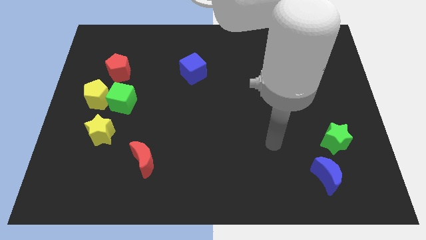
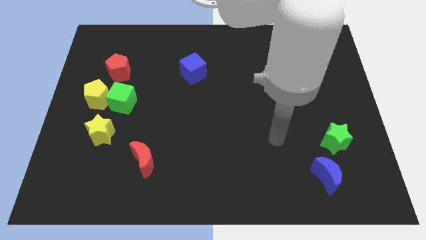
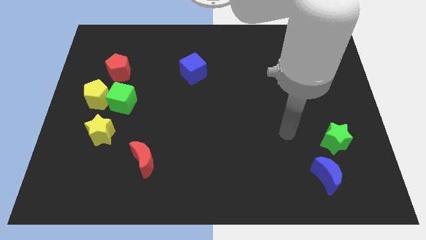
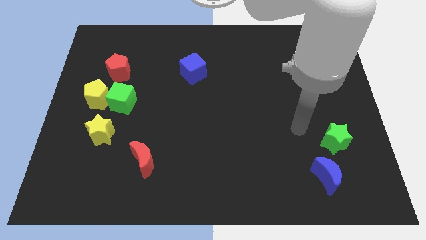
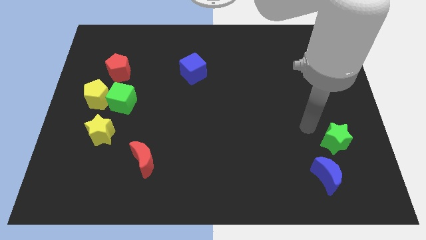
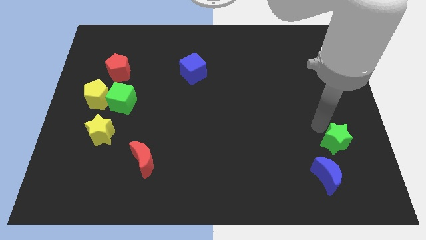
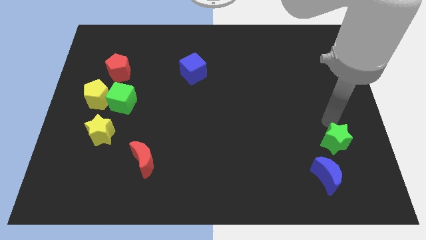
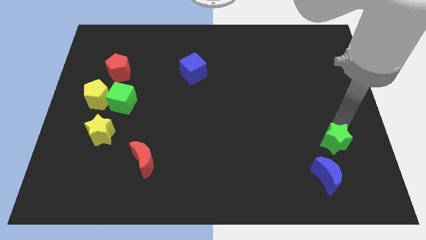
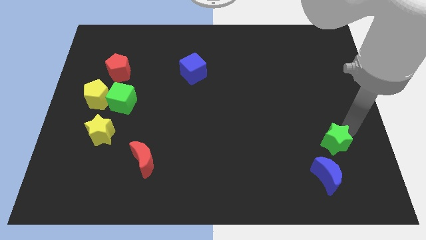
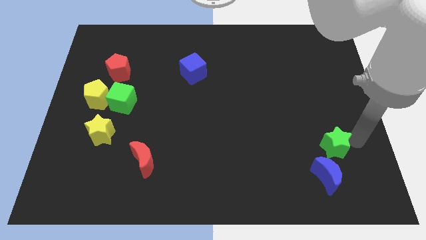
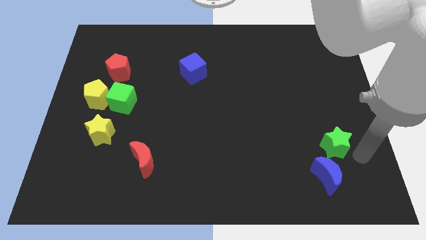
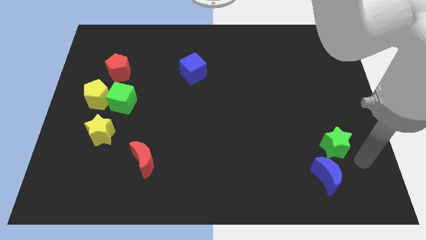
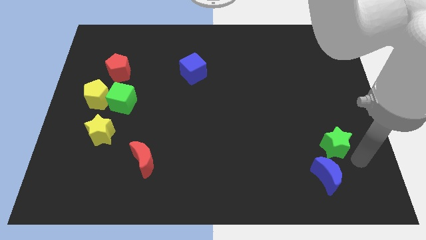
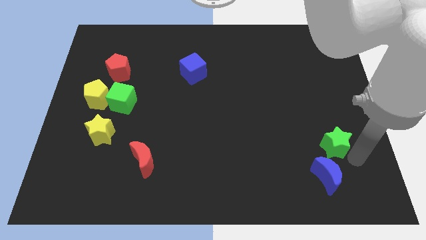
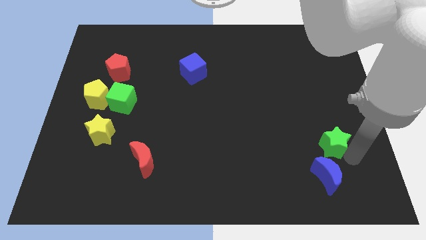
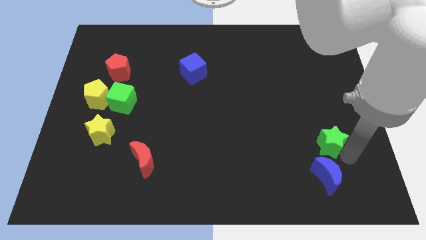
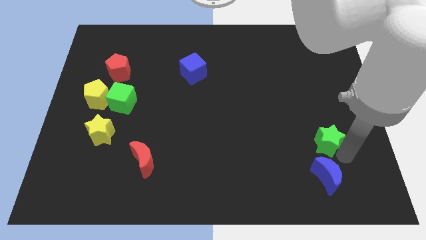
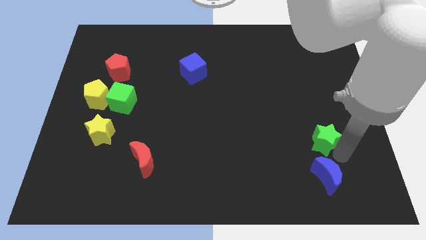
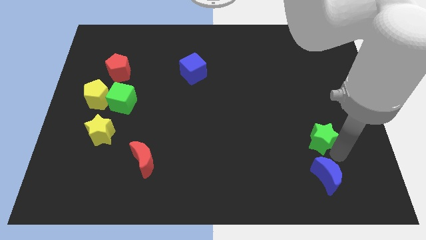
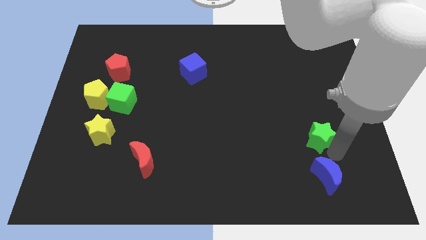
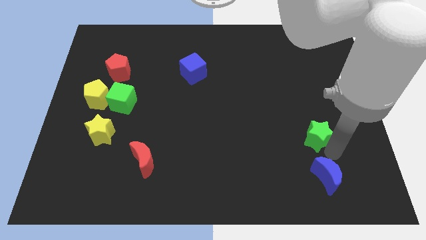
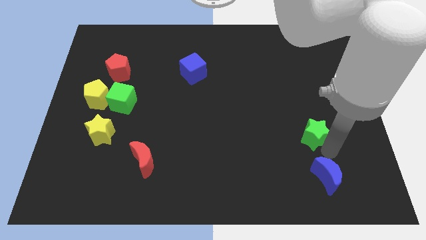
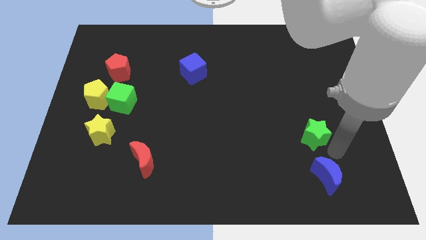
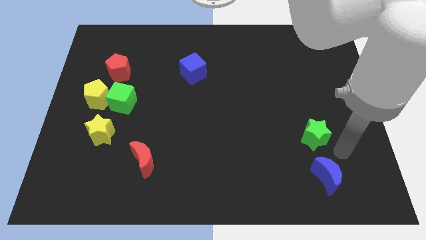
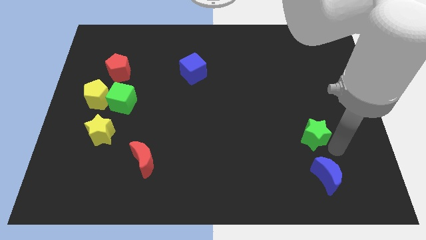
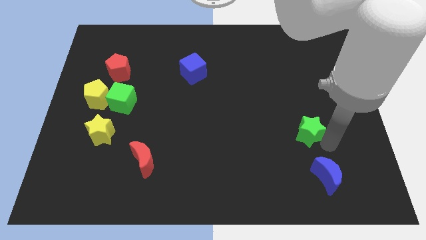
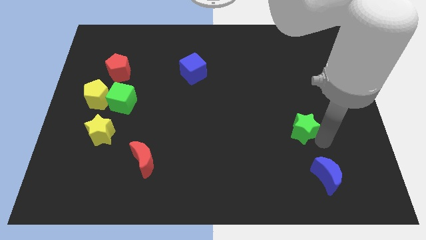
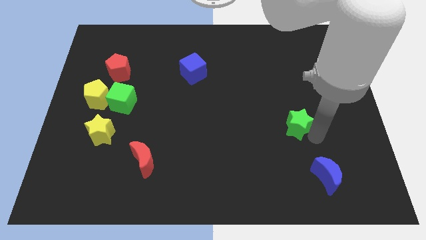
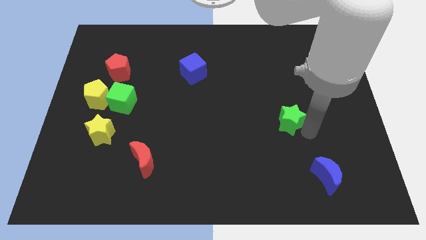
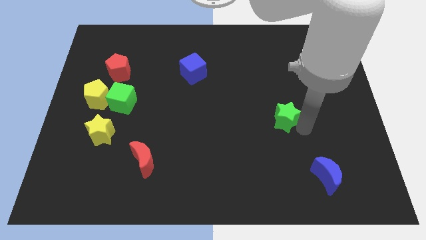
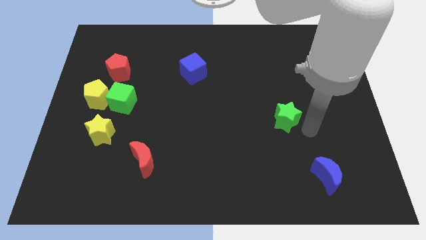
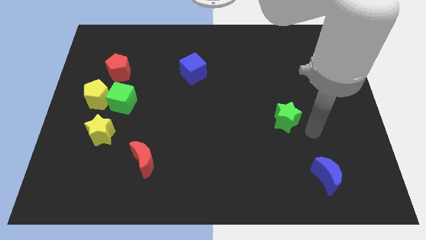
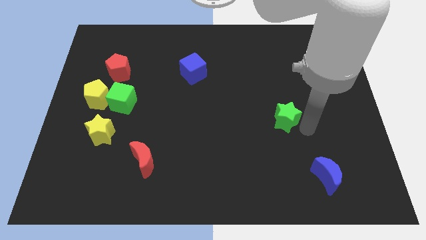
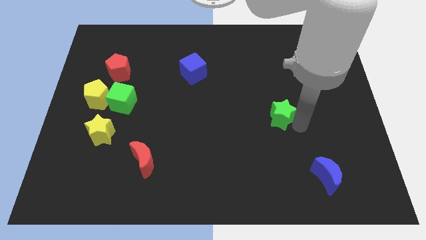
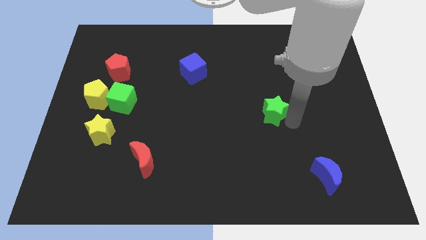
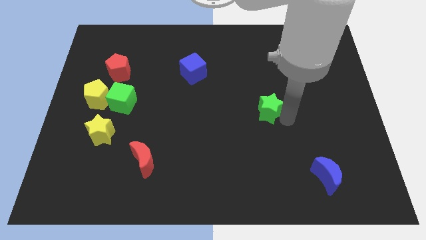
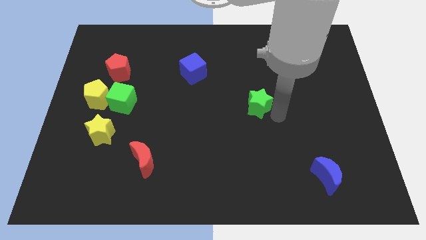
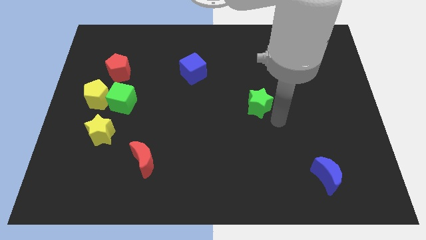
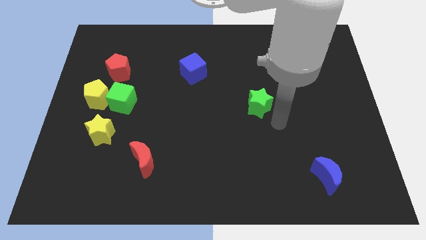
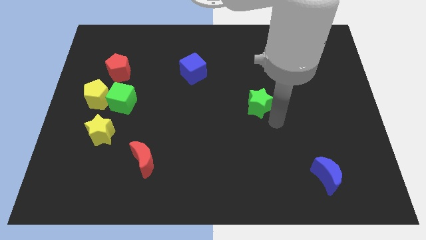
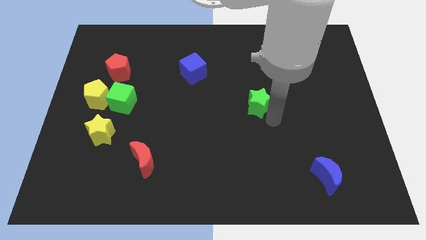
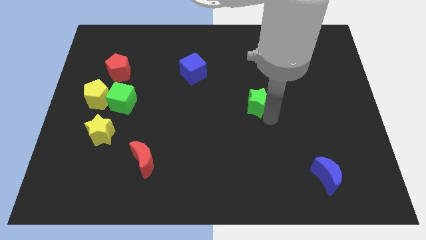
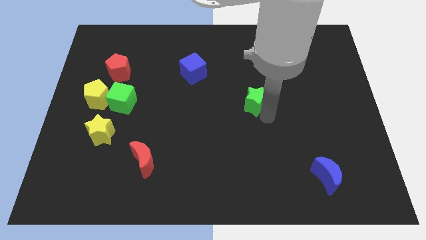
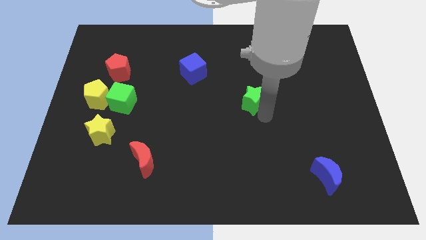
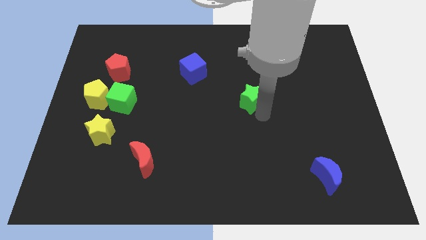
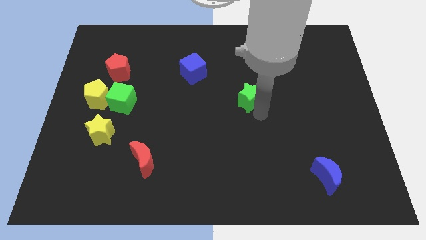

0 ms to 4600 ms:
slide the green star upwards and then to the left

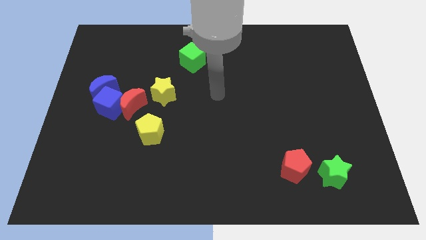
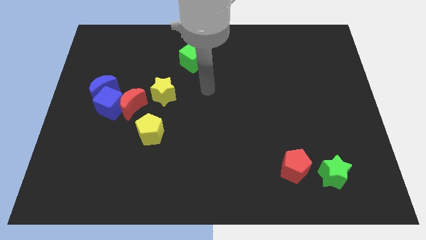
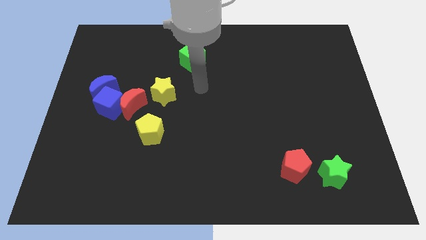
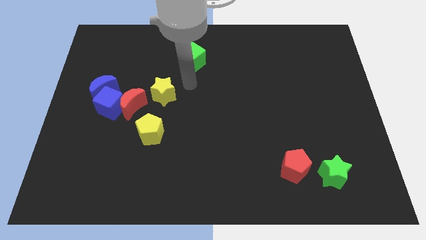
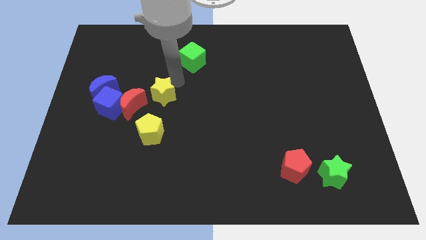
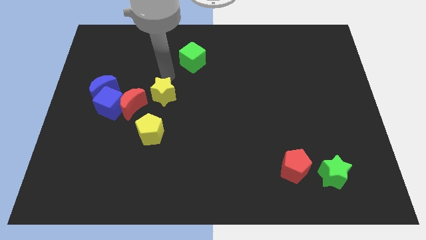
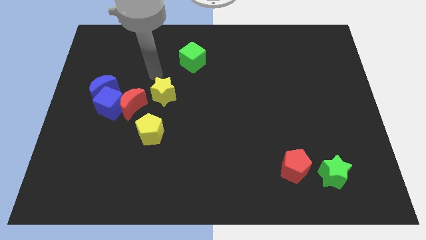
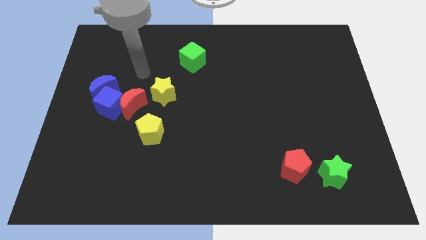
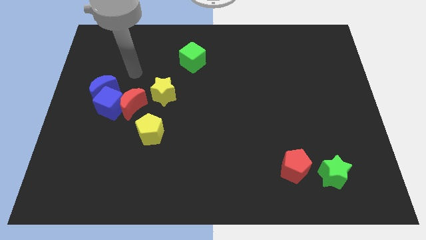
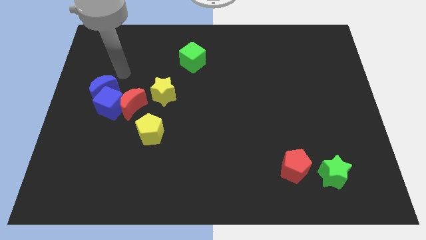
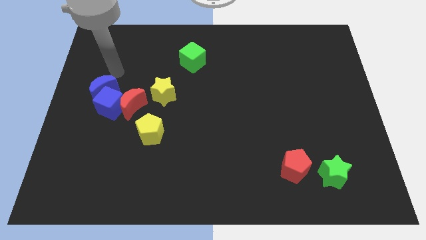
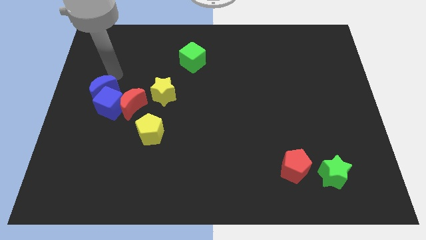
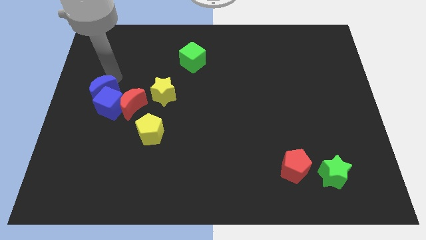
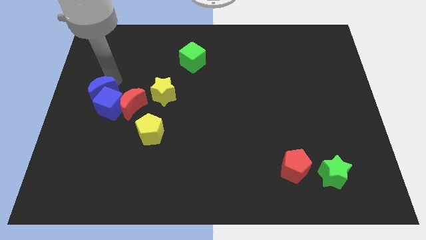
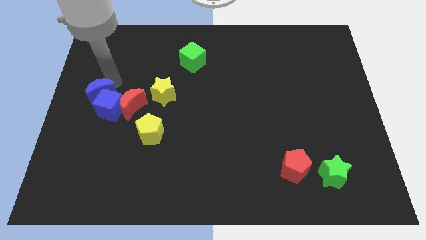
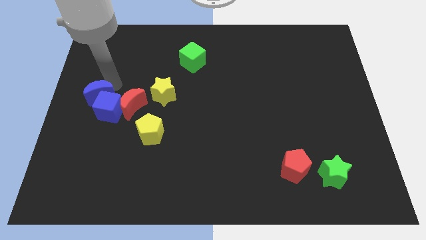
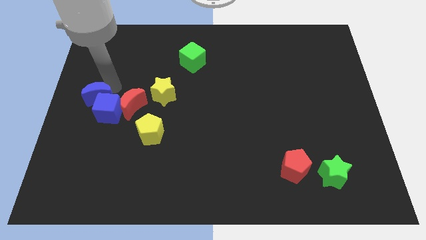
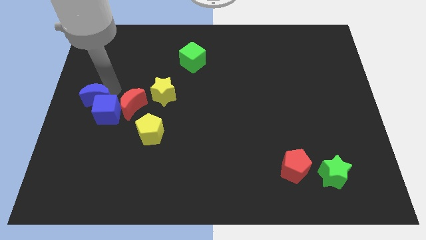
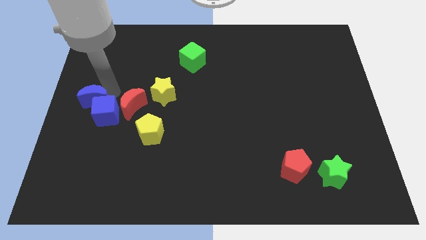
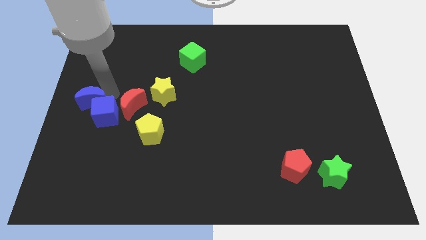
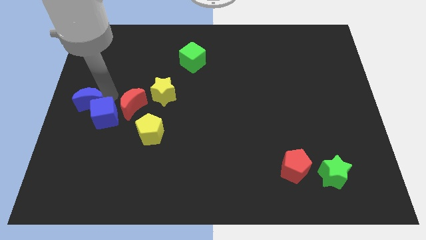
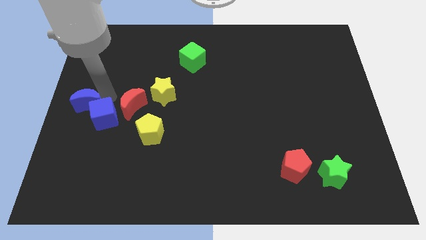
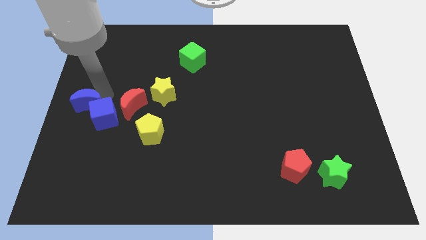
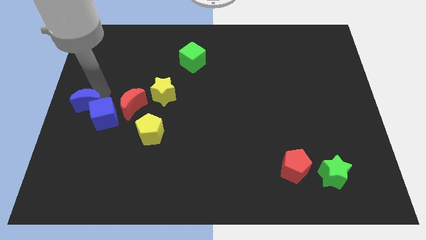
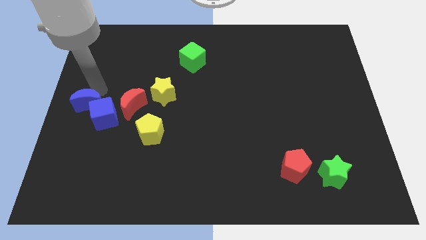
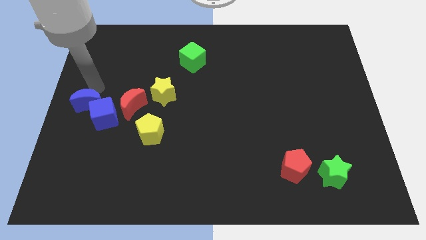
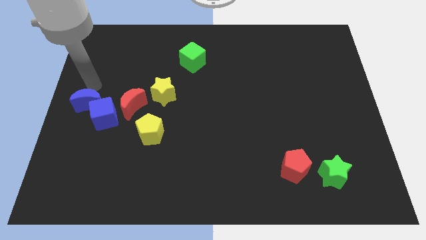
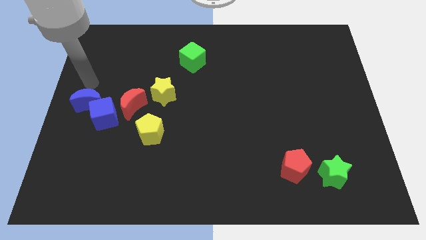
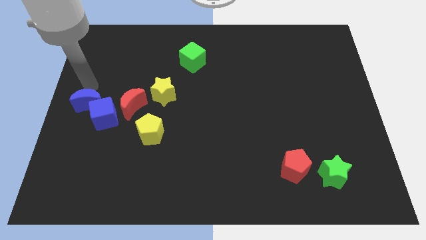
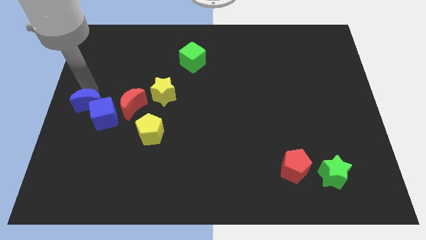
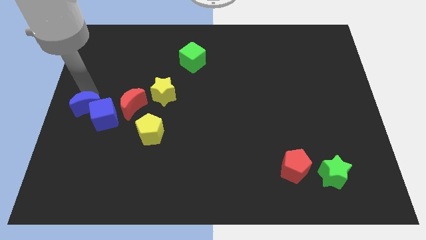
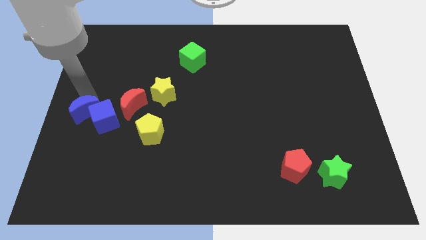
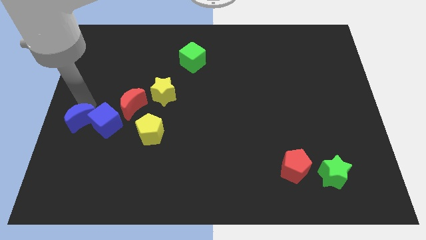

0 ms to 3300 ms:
move the blue moon a little down
